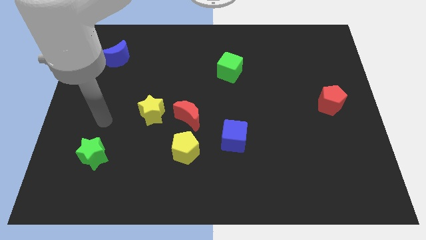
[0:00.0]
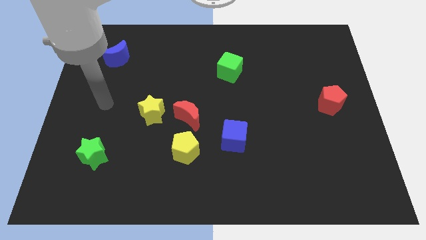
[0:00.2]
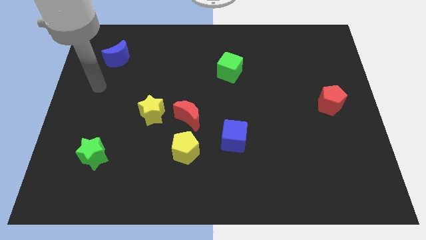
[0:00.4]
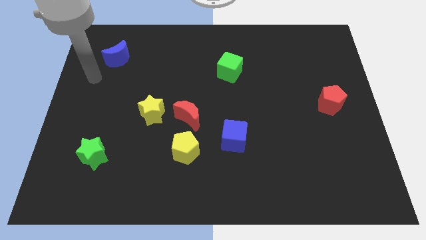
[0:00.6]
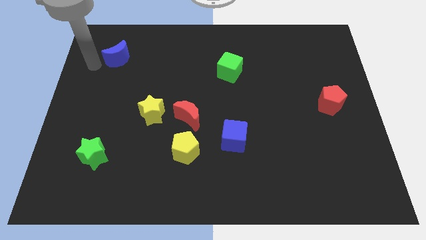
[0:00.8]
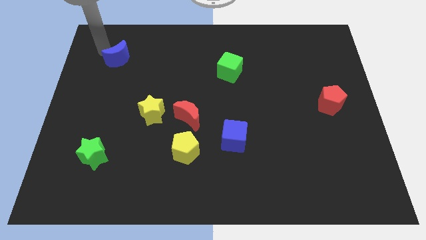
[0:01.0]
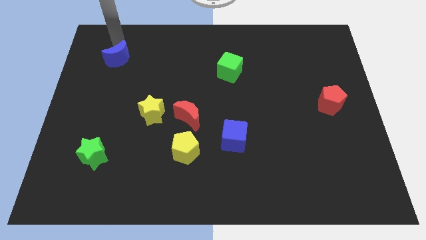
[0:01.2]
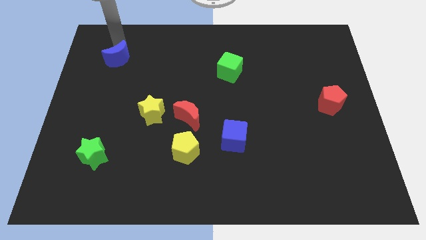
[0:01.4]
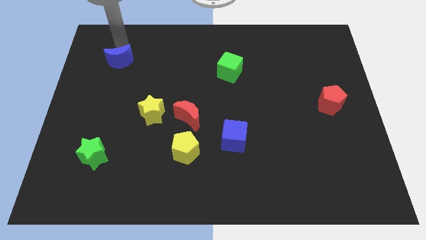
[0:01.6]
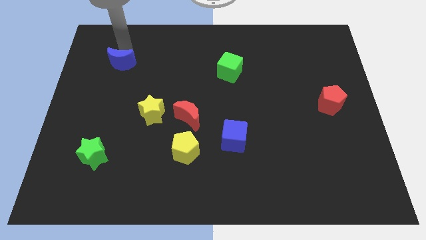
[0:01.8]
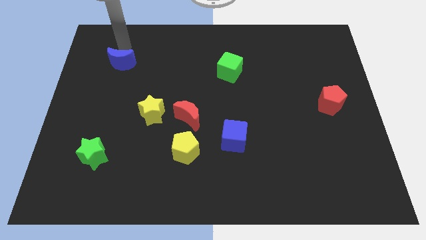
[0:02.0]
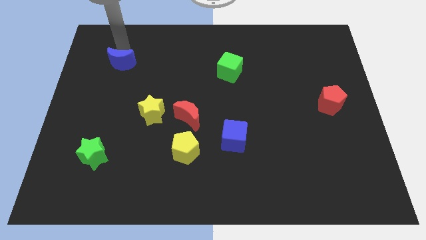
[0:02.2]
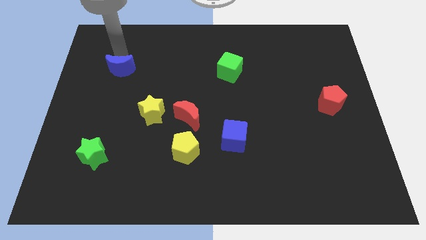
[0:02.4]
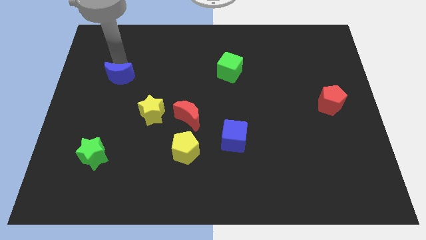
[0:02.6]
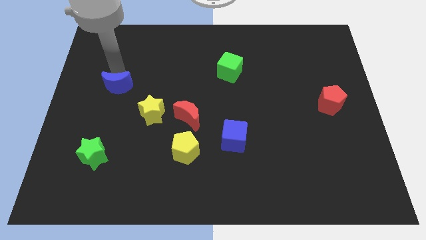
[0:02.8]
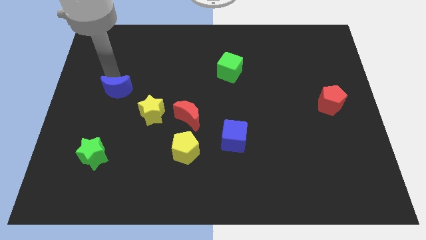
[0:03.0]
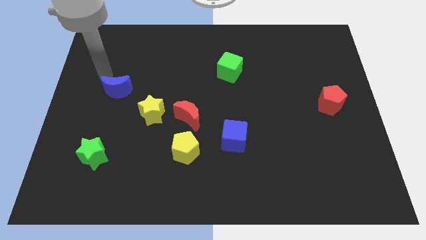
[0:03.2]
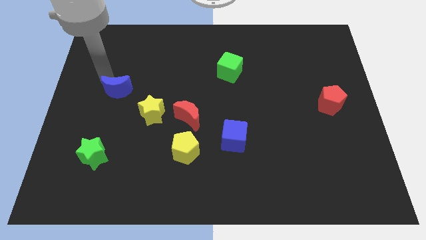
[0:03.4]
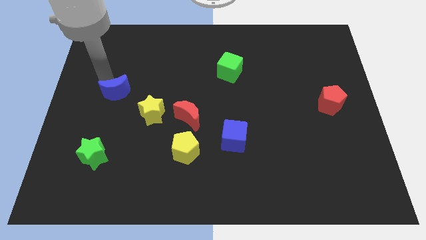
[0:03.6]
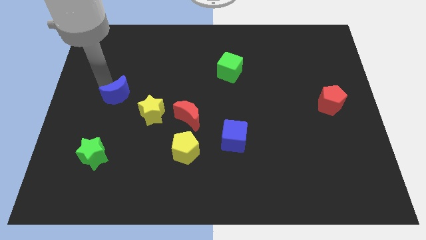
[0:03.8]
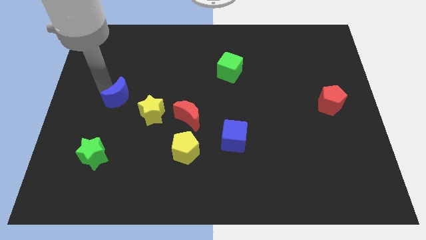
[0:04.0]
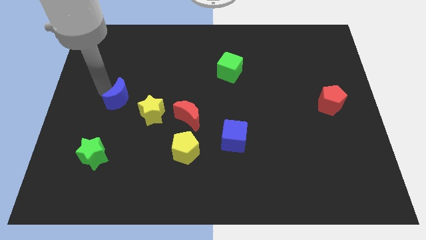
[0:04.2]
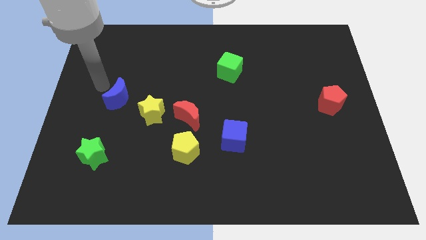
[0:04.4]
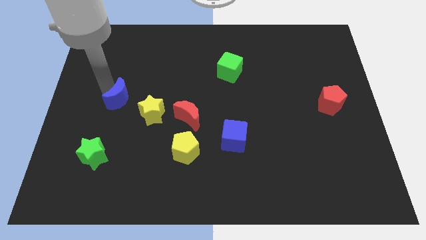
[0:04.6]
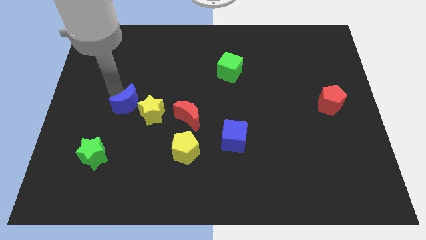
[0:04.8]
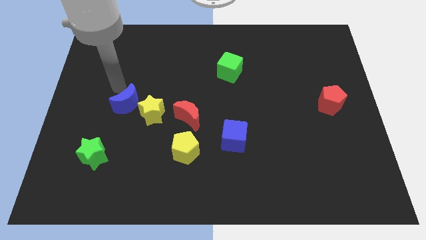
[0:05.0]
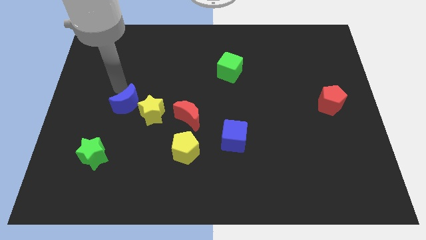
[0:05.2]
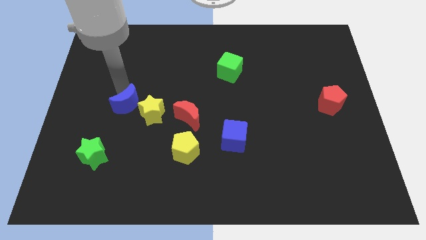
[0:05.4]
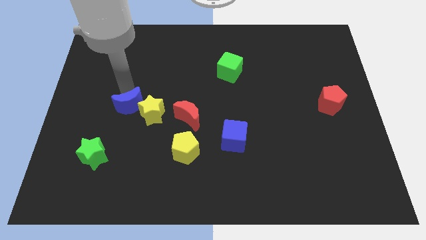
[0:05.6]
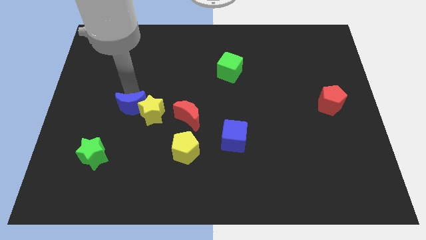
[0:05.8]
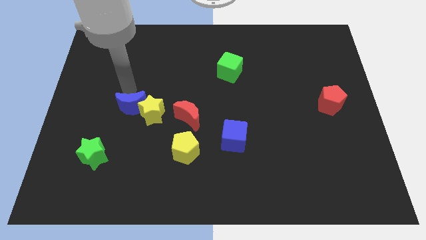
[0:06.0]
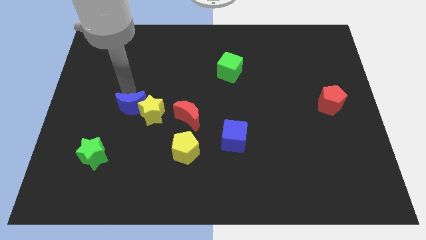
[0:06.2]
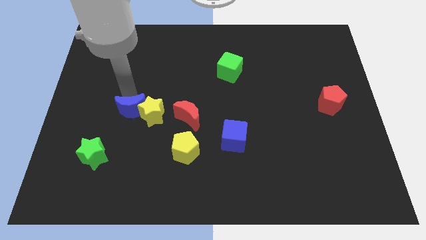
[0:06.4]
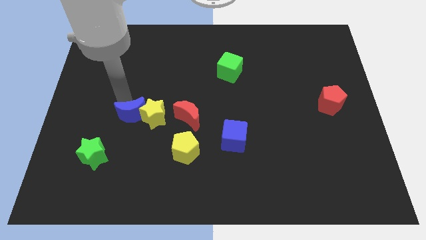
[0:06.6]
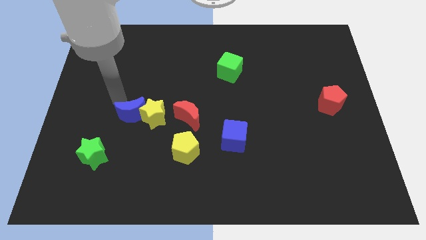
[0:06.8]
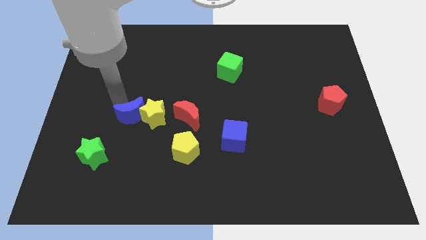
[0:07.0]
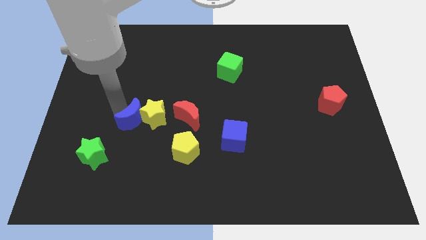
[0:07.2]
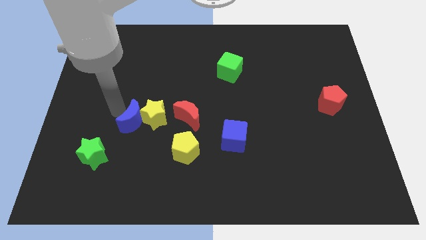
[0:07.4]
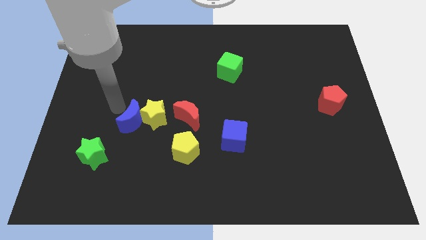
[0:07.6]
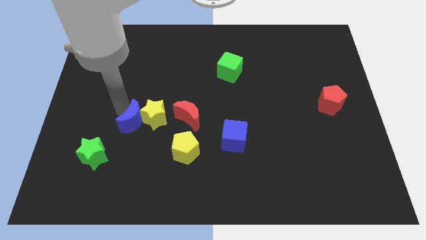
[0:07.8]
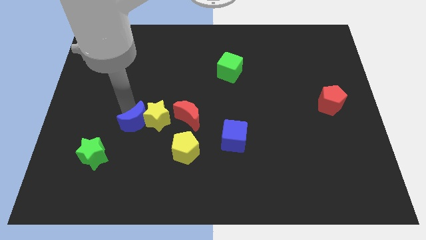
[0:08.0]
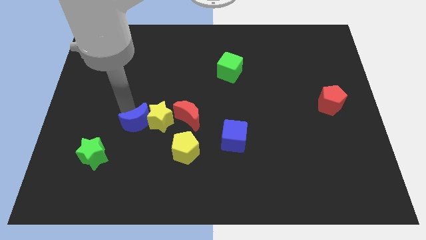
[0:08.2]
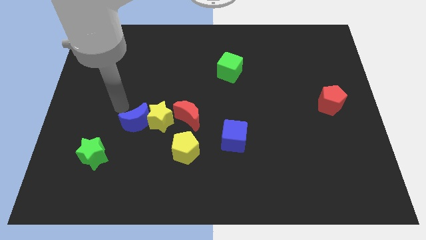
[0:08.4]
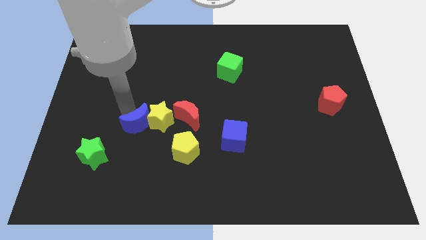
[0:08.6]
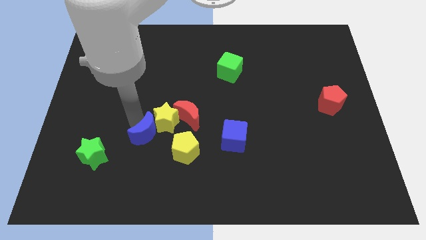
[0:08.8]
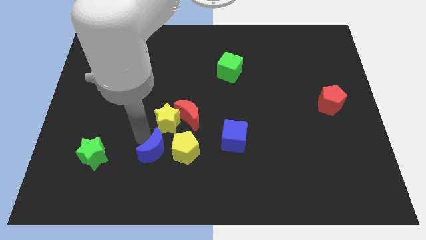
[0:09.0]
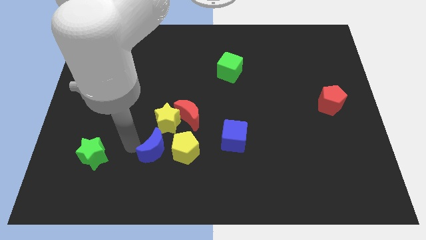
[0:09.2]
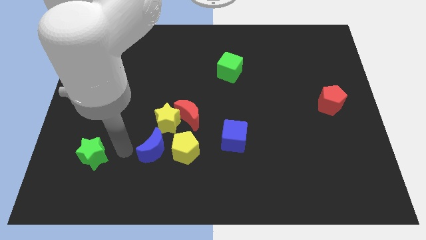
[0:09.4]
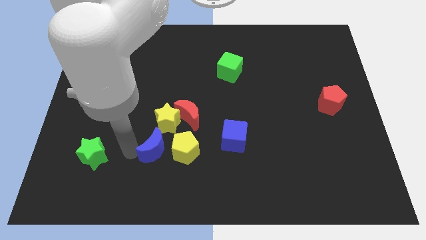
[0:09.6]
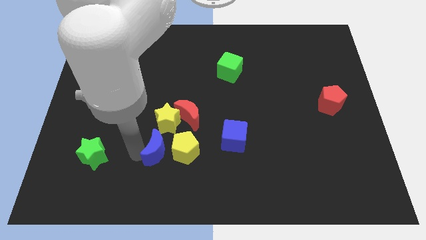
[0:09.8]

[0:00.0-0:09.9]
slide the blue moon to the yellow pentagon

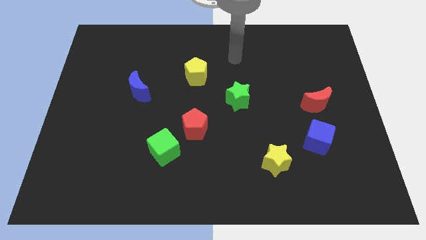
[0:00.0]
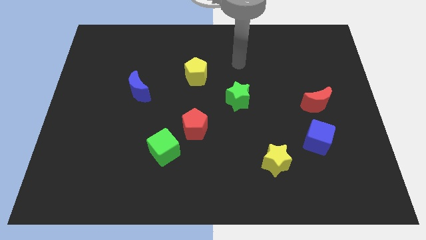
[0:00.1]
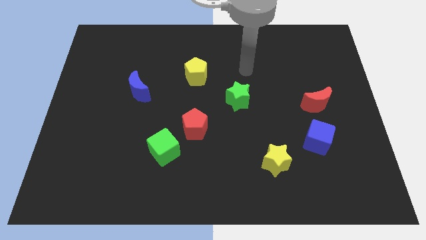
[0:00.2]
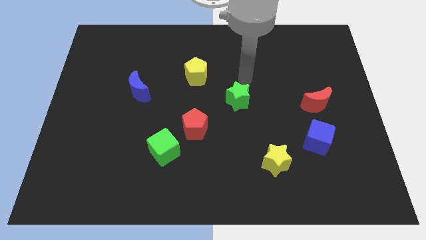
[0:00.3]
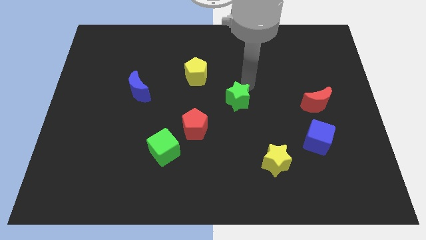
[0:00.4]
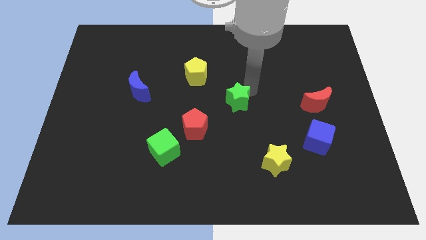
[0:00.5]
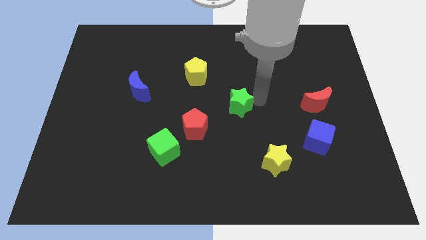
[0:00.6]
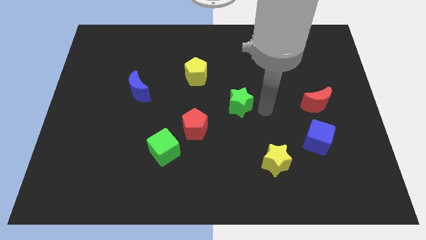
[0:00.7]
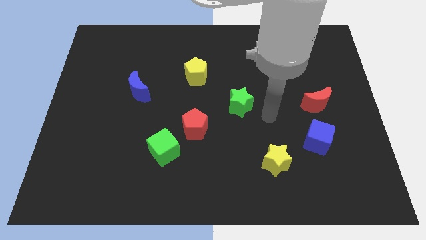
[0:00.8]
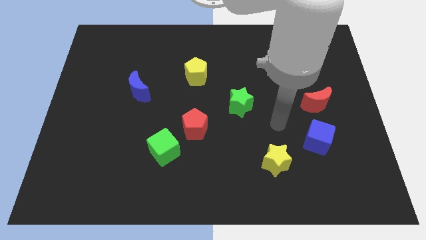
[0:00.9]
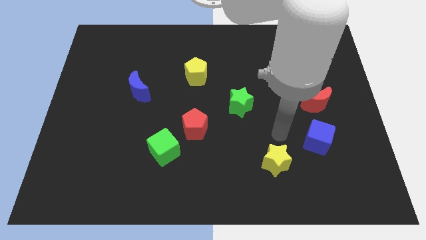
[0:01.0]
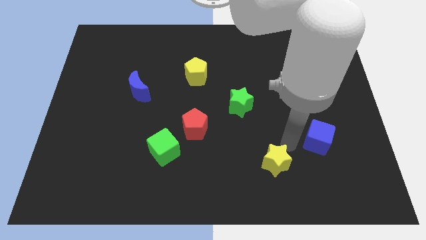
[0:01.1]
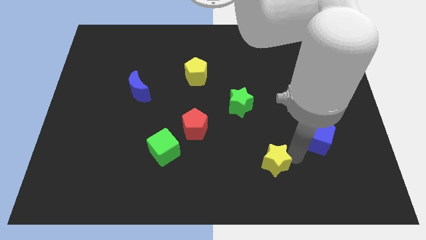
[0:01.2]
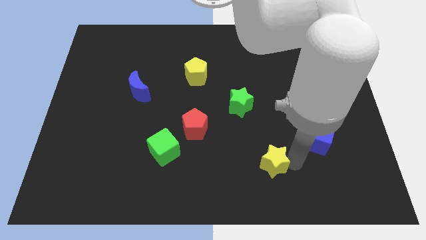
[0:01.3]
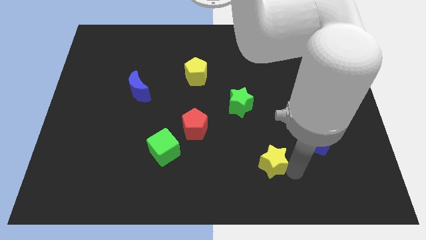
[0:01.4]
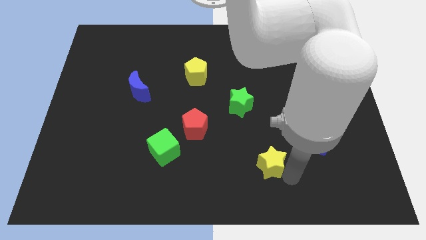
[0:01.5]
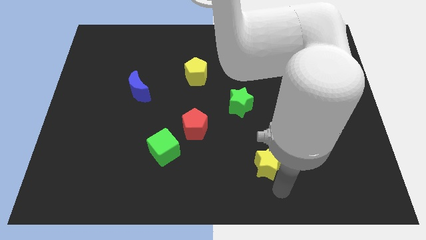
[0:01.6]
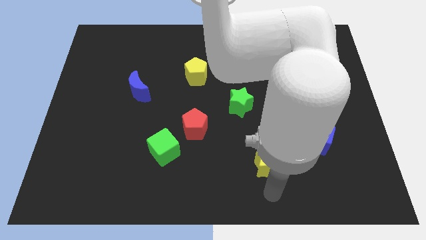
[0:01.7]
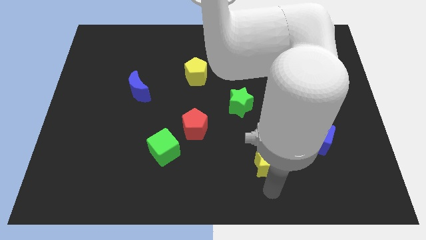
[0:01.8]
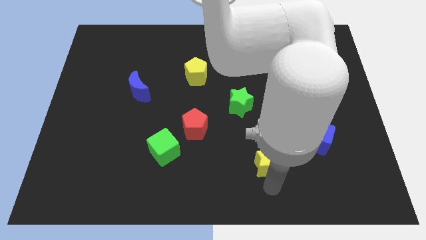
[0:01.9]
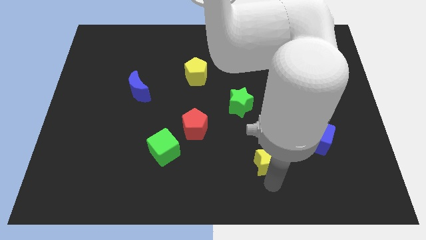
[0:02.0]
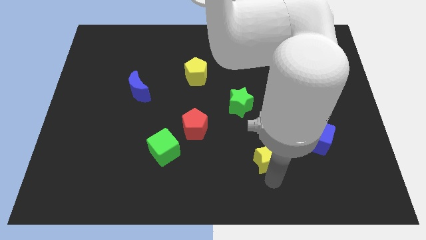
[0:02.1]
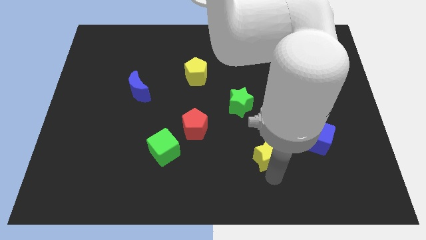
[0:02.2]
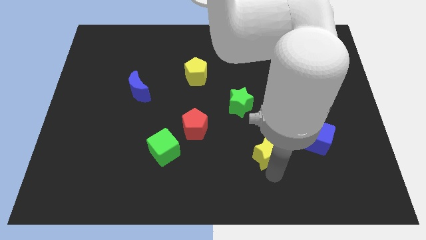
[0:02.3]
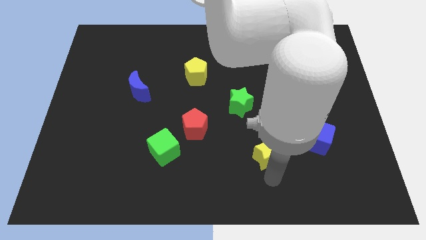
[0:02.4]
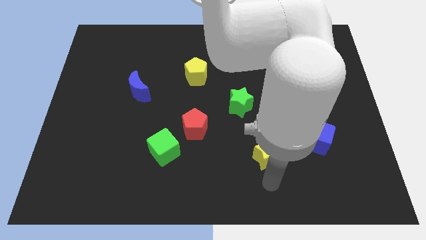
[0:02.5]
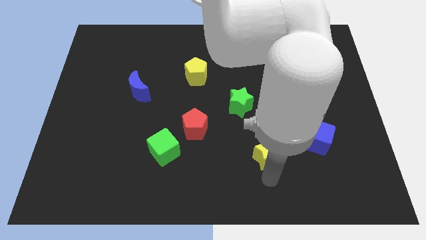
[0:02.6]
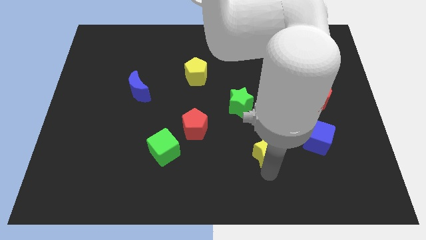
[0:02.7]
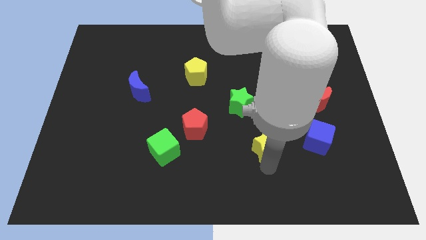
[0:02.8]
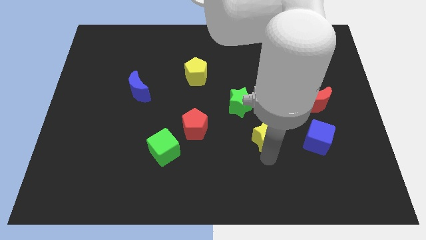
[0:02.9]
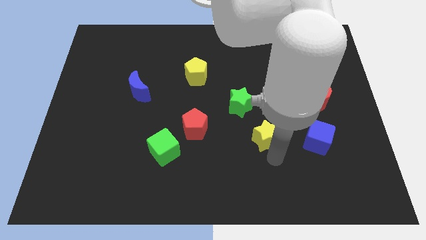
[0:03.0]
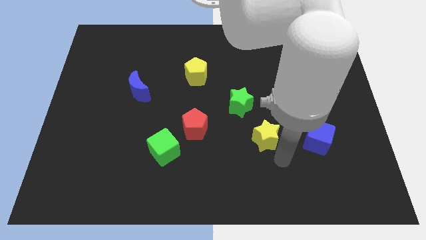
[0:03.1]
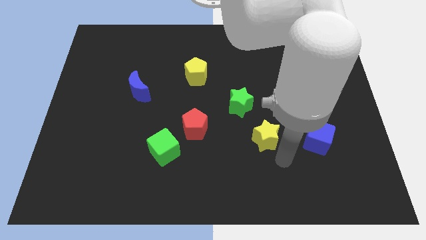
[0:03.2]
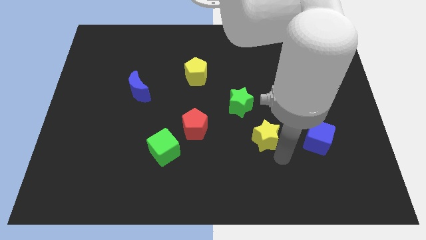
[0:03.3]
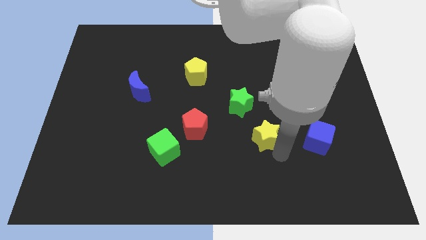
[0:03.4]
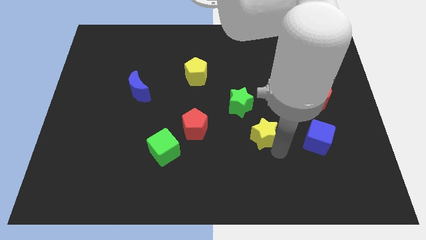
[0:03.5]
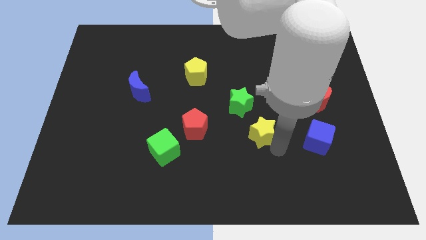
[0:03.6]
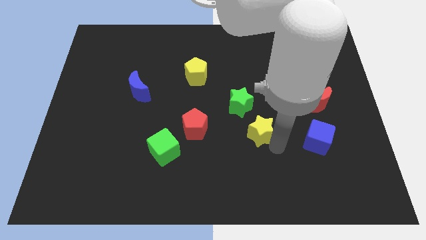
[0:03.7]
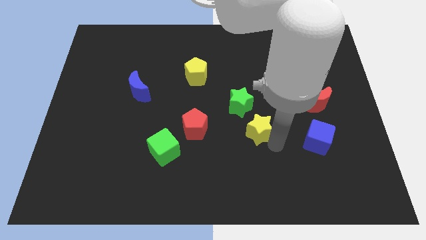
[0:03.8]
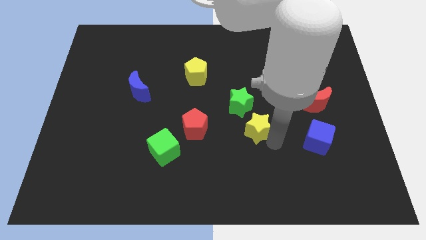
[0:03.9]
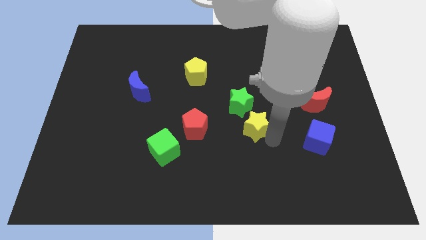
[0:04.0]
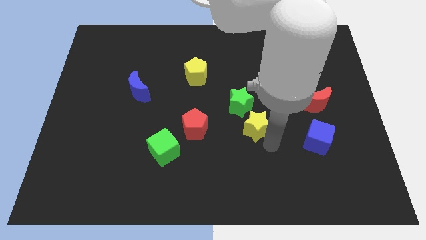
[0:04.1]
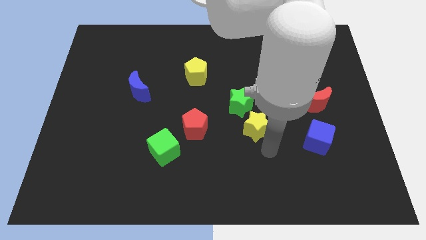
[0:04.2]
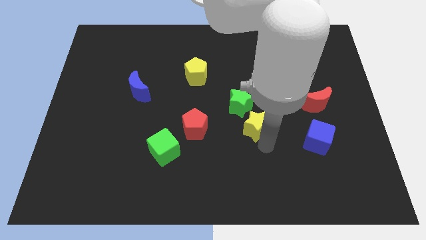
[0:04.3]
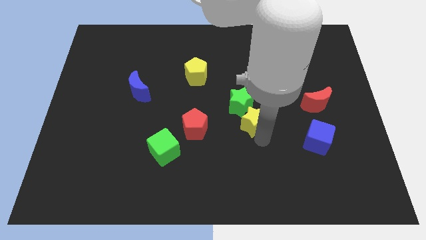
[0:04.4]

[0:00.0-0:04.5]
move the yellow star to the green star
